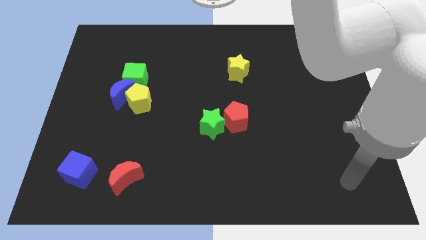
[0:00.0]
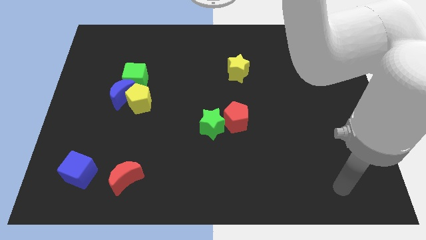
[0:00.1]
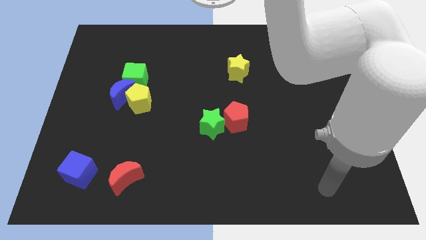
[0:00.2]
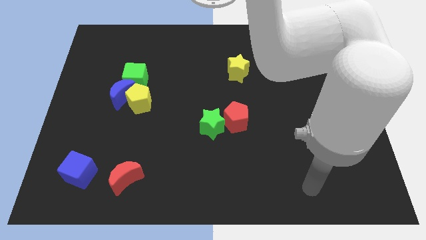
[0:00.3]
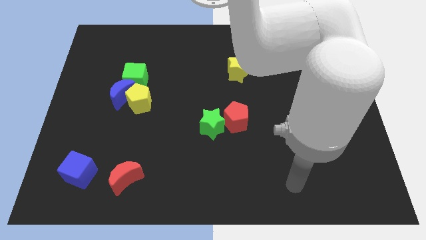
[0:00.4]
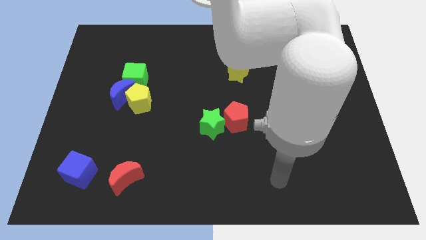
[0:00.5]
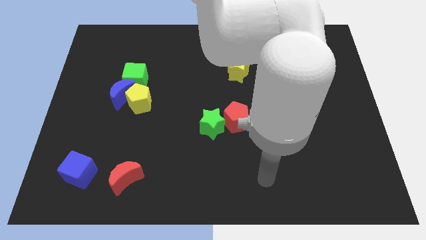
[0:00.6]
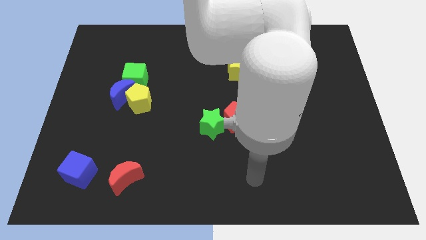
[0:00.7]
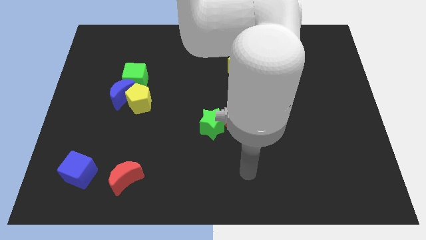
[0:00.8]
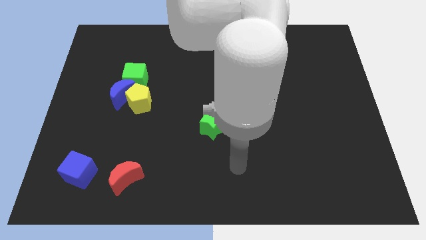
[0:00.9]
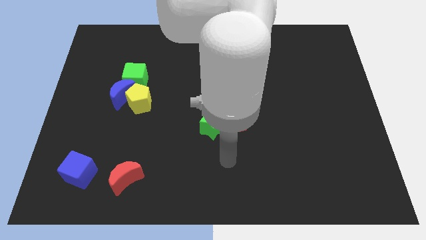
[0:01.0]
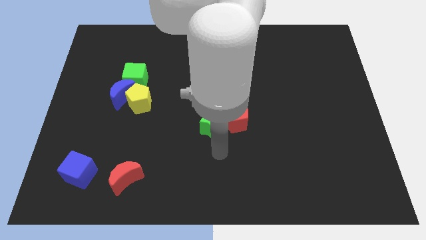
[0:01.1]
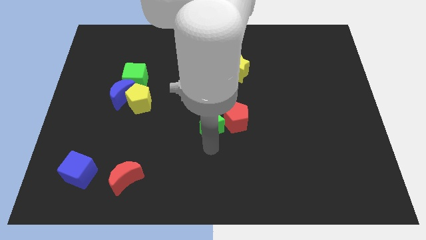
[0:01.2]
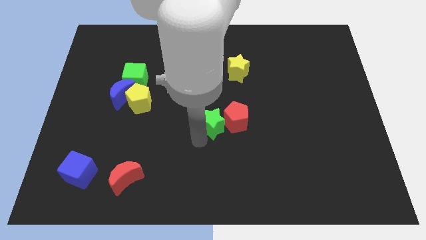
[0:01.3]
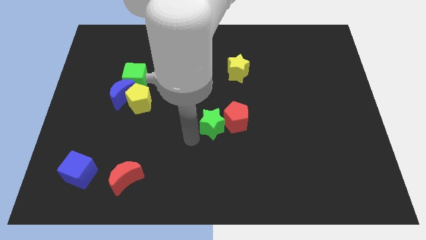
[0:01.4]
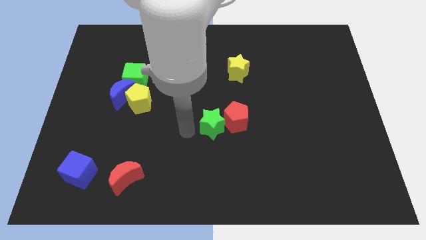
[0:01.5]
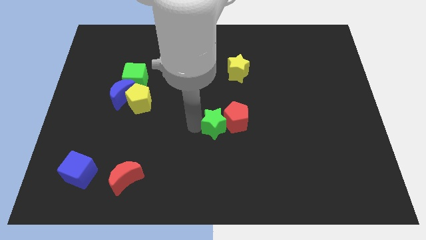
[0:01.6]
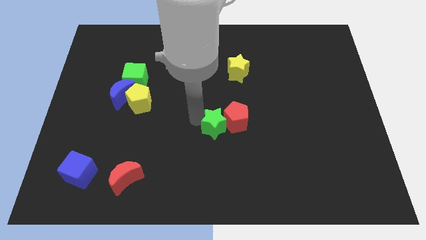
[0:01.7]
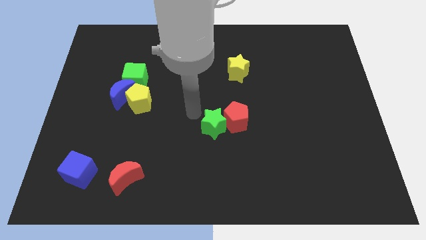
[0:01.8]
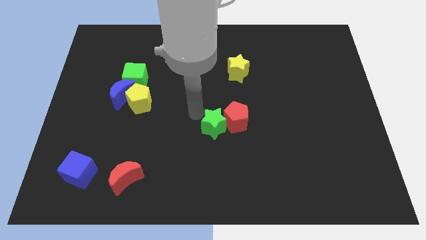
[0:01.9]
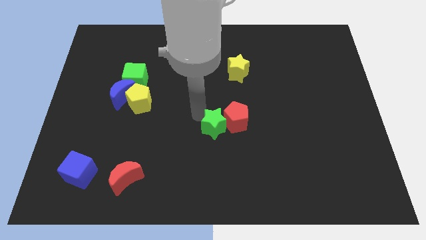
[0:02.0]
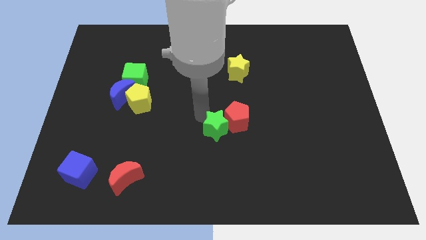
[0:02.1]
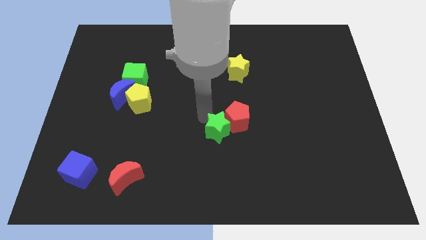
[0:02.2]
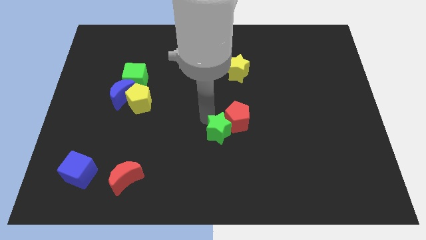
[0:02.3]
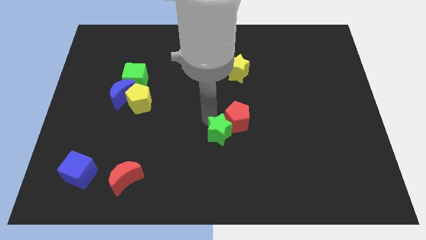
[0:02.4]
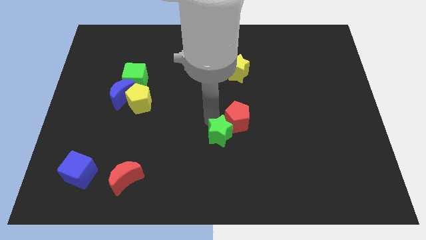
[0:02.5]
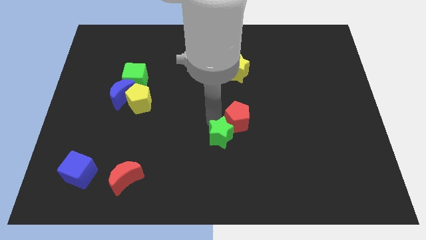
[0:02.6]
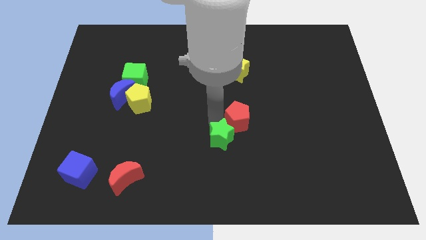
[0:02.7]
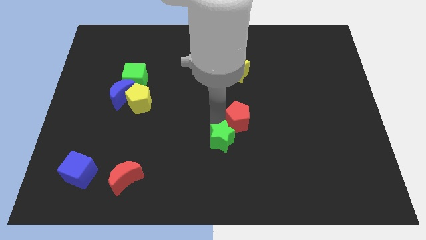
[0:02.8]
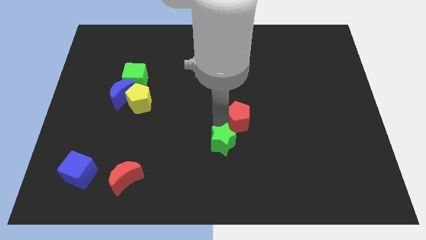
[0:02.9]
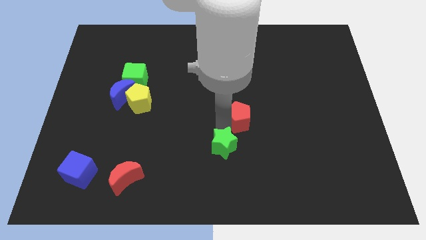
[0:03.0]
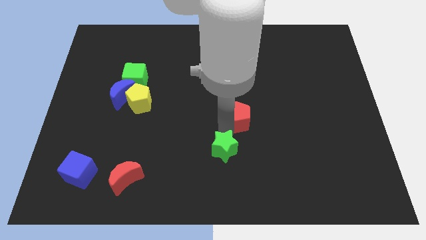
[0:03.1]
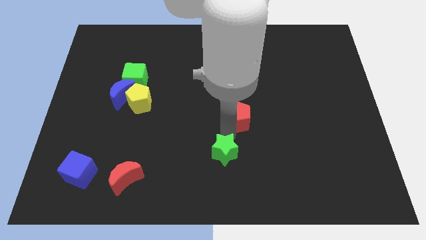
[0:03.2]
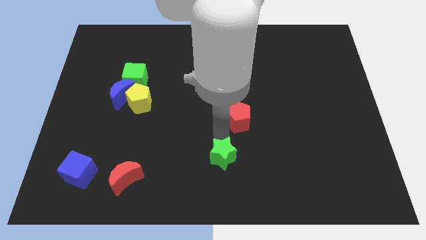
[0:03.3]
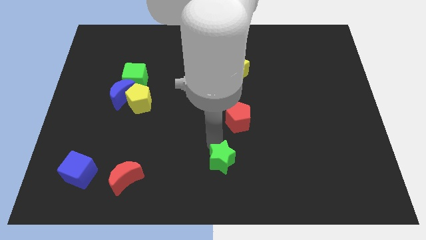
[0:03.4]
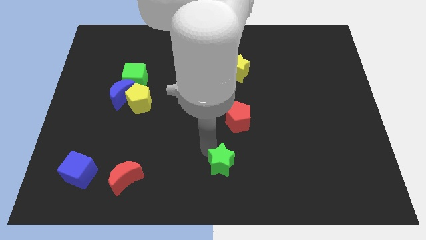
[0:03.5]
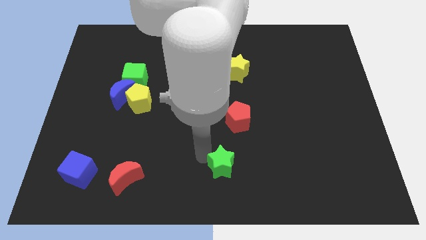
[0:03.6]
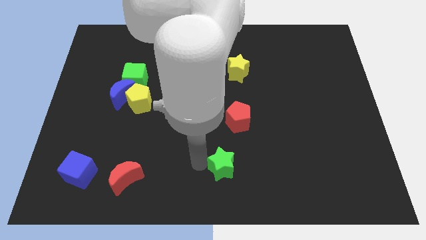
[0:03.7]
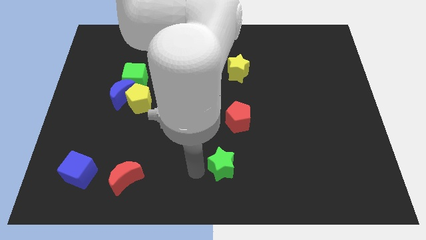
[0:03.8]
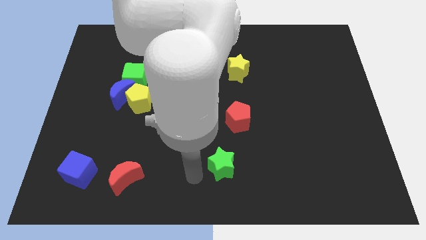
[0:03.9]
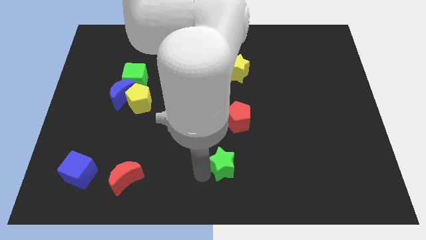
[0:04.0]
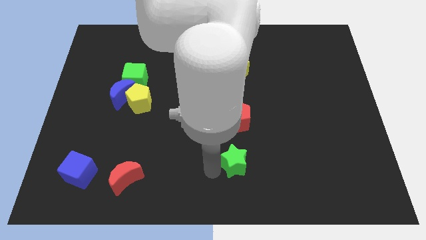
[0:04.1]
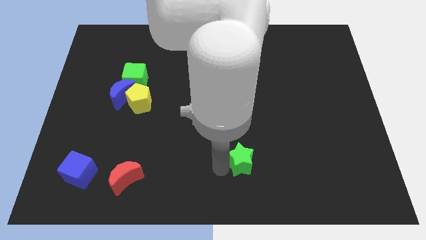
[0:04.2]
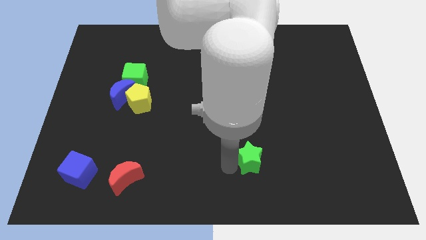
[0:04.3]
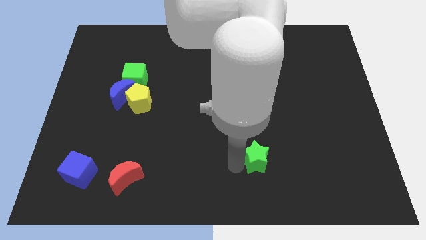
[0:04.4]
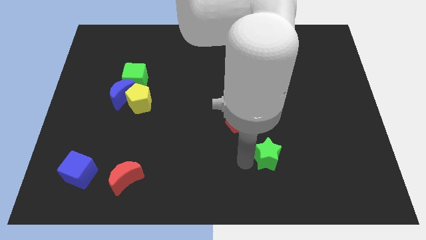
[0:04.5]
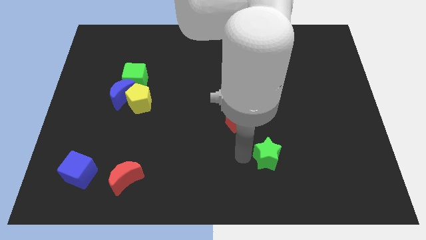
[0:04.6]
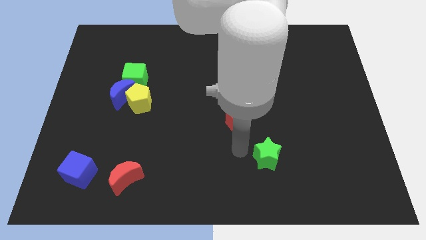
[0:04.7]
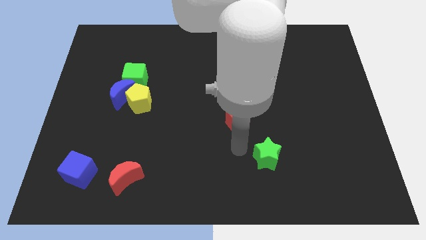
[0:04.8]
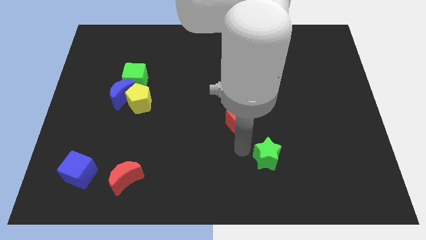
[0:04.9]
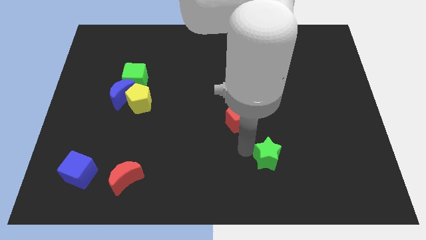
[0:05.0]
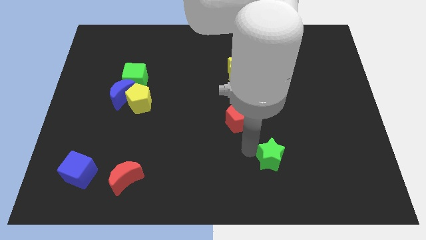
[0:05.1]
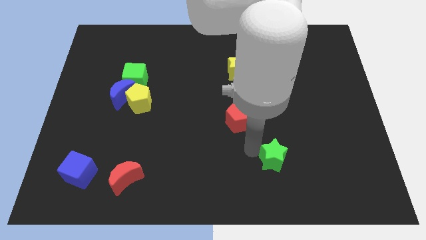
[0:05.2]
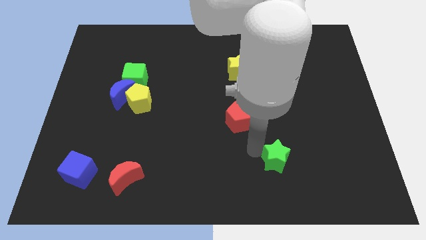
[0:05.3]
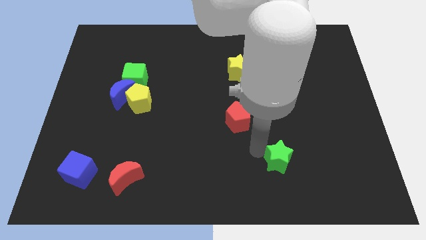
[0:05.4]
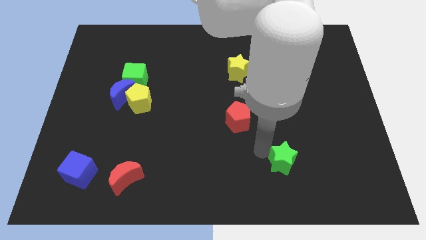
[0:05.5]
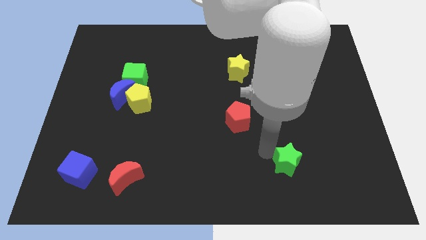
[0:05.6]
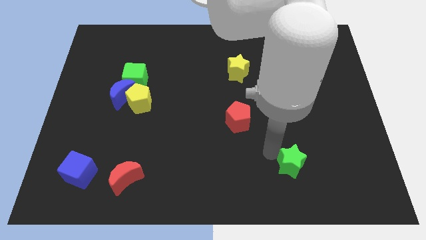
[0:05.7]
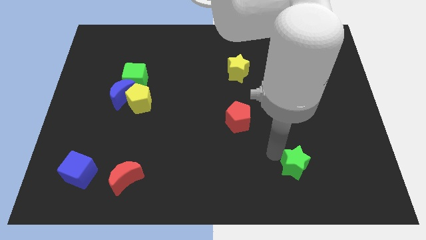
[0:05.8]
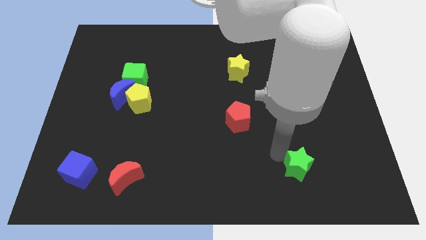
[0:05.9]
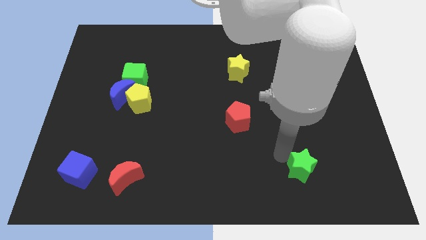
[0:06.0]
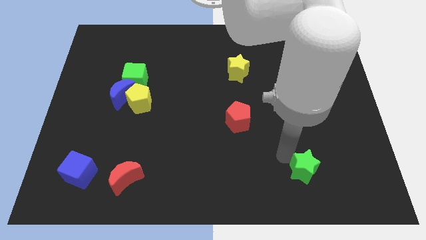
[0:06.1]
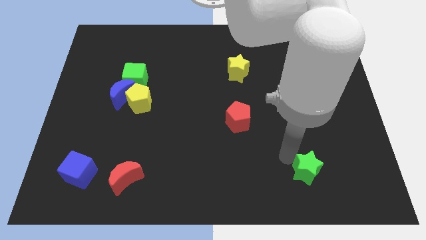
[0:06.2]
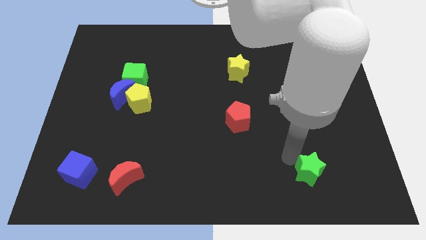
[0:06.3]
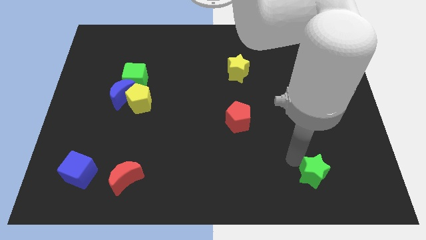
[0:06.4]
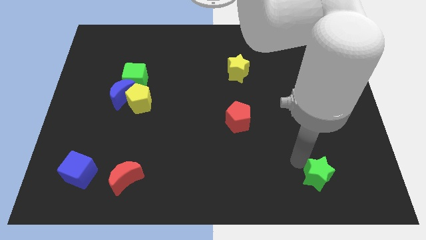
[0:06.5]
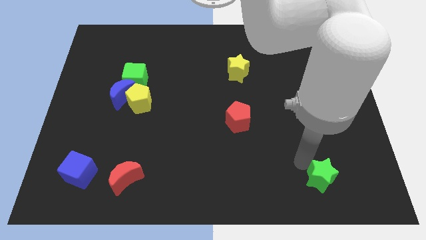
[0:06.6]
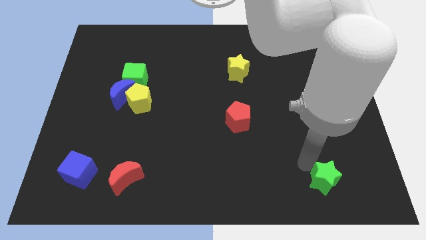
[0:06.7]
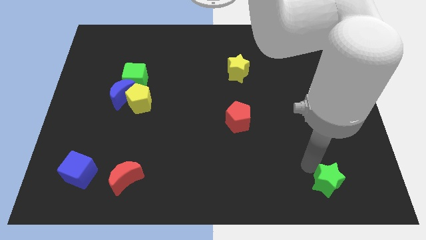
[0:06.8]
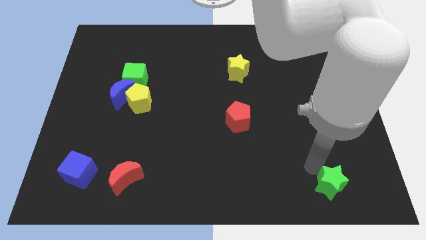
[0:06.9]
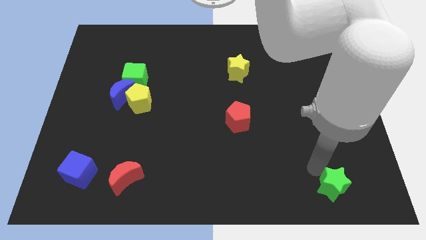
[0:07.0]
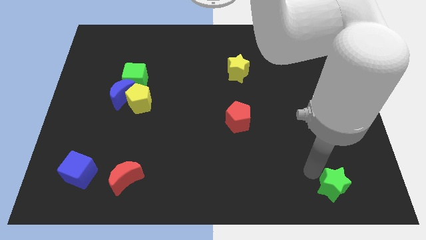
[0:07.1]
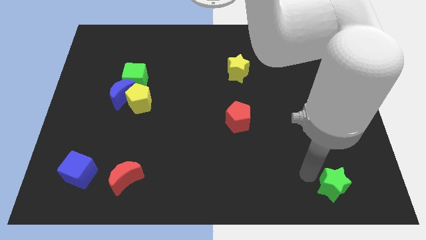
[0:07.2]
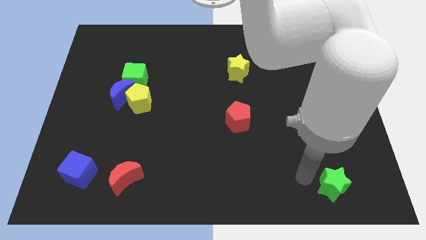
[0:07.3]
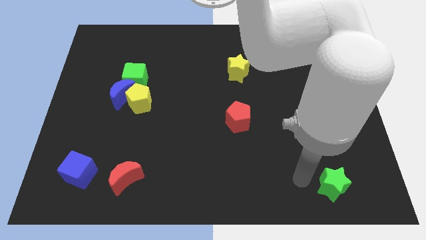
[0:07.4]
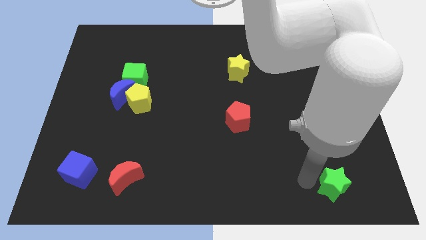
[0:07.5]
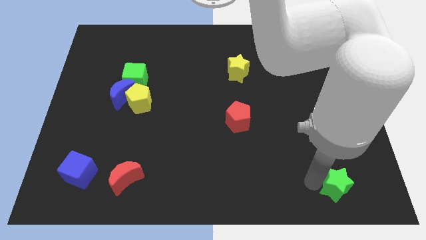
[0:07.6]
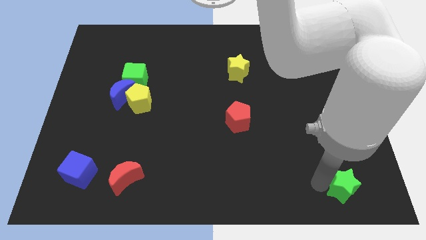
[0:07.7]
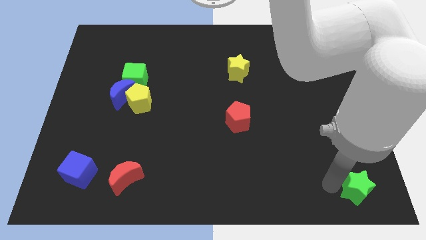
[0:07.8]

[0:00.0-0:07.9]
move the green star to the bottom right of the board
